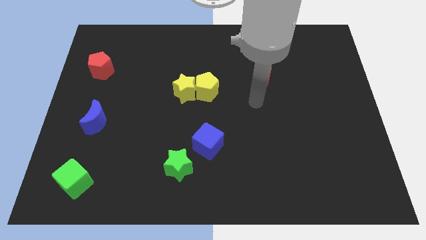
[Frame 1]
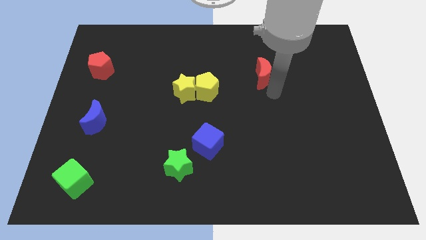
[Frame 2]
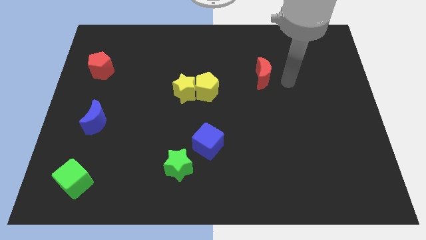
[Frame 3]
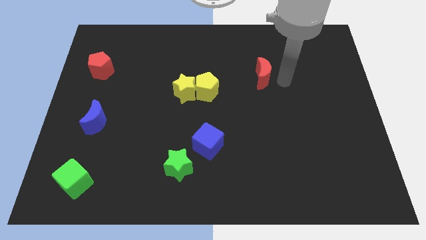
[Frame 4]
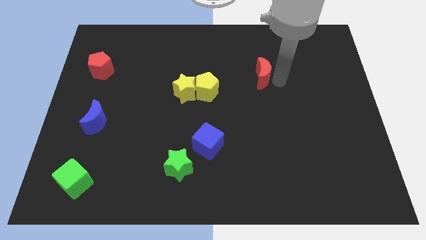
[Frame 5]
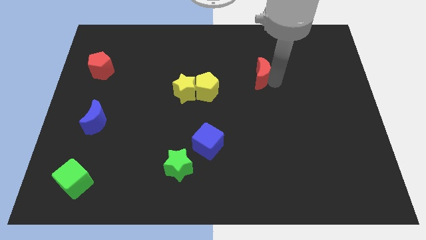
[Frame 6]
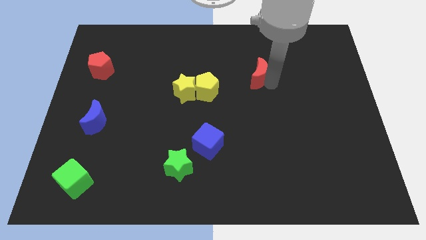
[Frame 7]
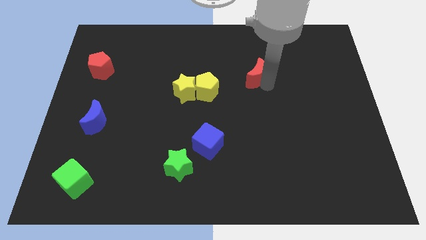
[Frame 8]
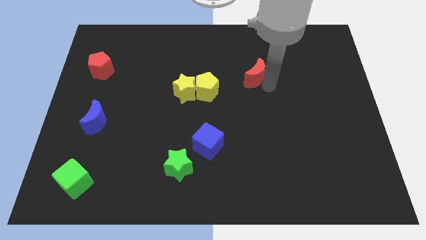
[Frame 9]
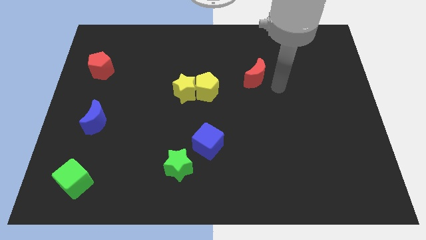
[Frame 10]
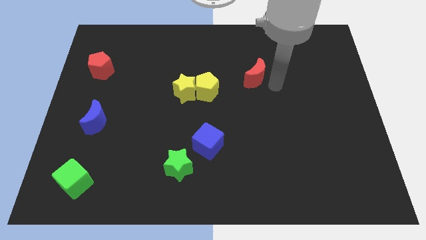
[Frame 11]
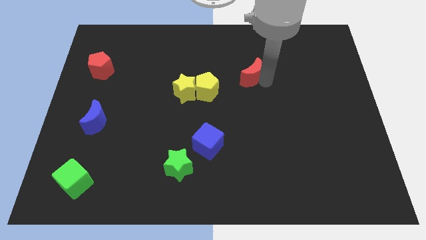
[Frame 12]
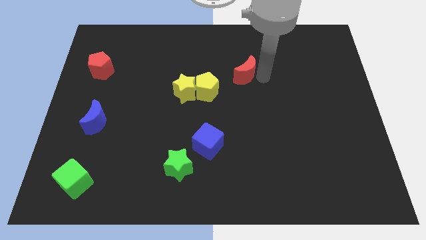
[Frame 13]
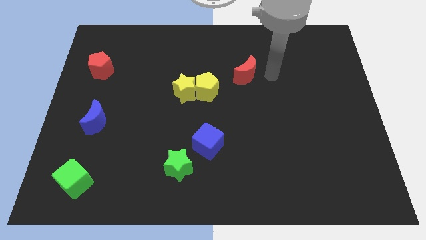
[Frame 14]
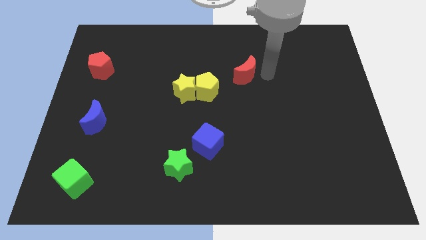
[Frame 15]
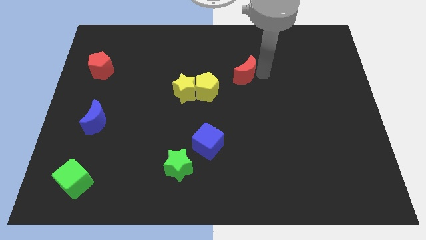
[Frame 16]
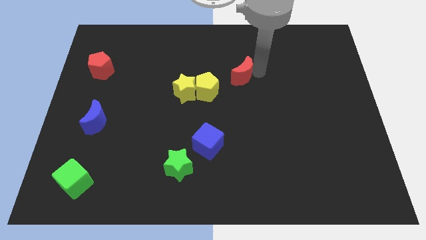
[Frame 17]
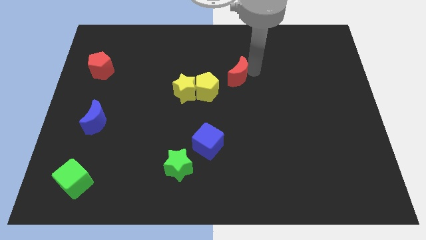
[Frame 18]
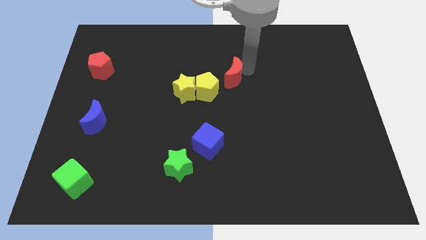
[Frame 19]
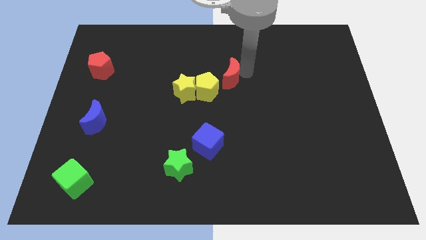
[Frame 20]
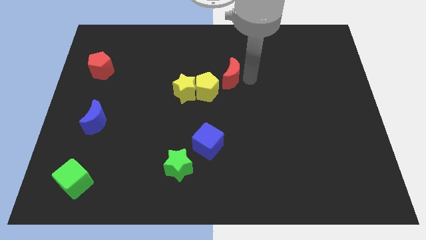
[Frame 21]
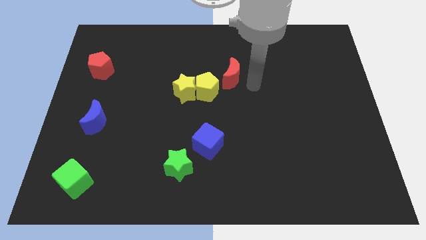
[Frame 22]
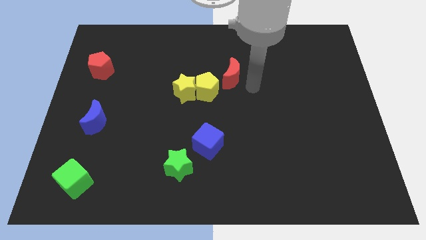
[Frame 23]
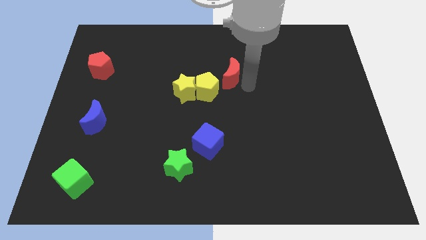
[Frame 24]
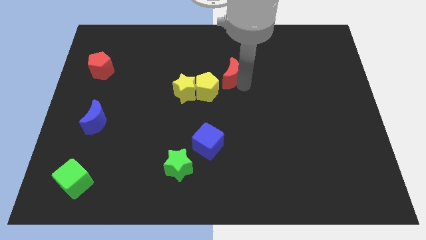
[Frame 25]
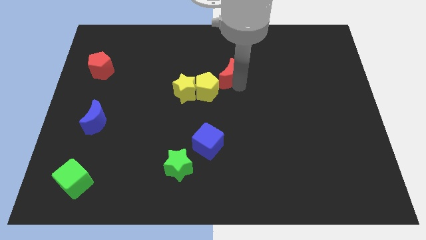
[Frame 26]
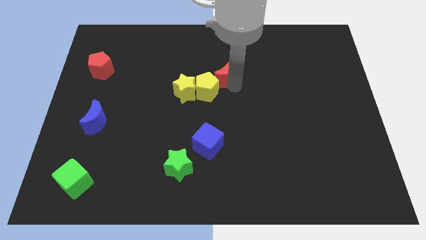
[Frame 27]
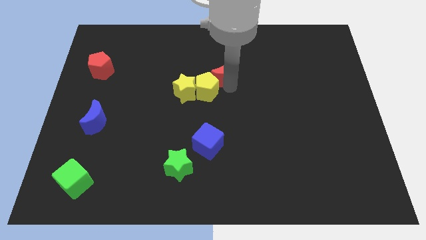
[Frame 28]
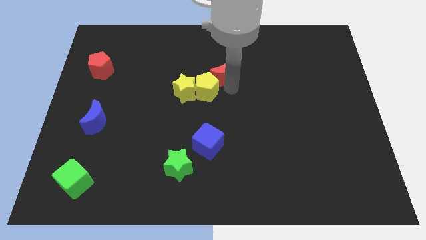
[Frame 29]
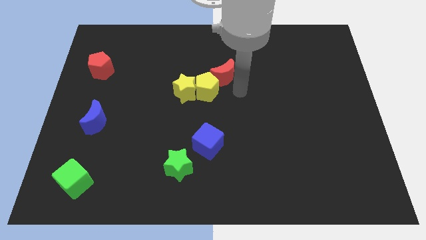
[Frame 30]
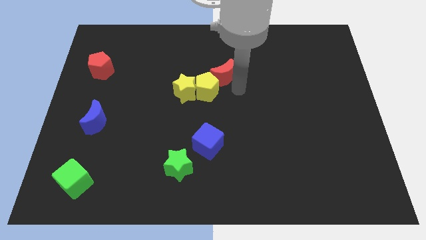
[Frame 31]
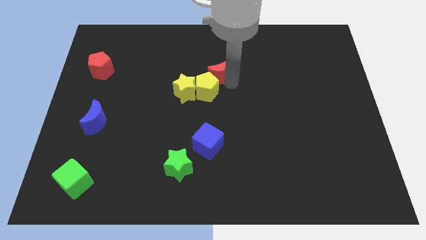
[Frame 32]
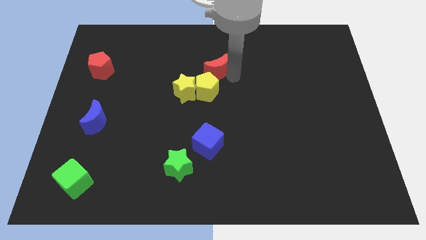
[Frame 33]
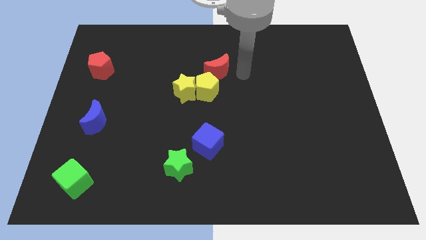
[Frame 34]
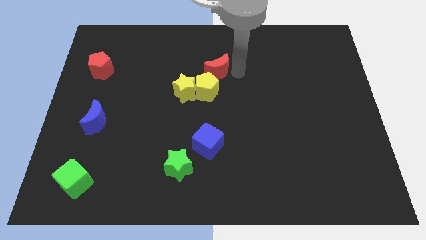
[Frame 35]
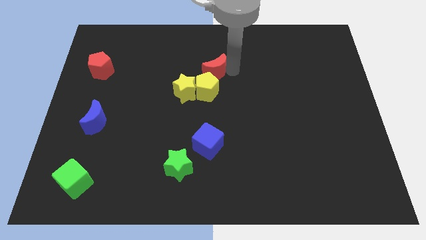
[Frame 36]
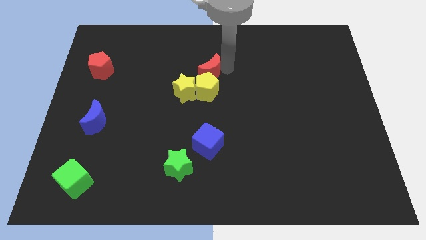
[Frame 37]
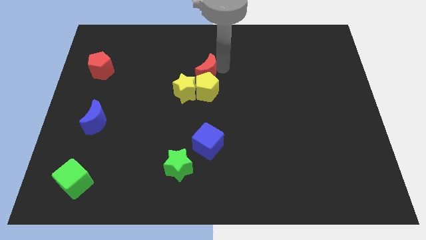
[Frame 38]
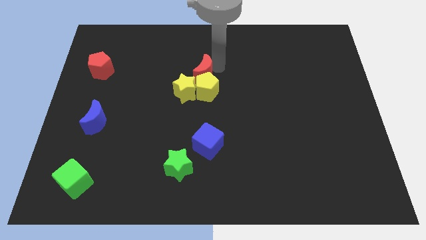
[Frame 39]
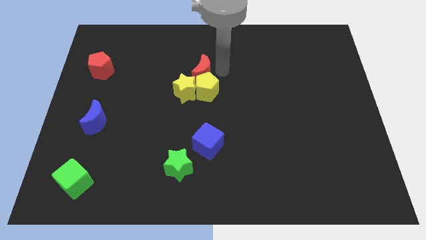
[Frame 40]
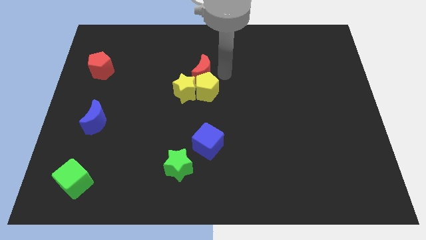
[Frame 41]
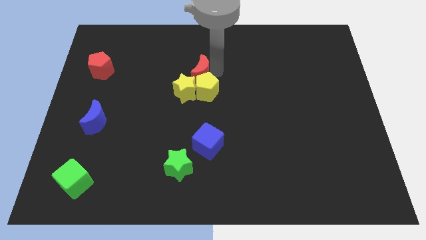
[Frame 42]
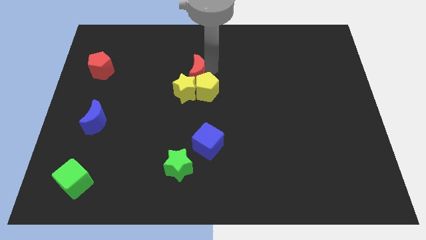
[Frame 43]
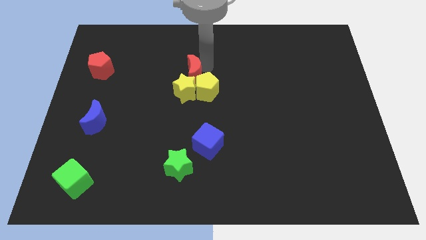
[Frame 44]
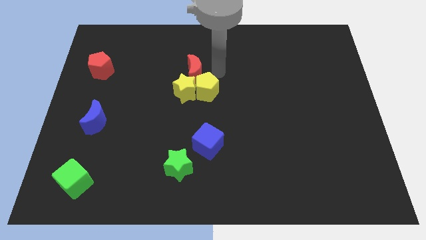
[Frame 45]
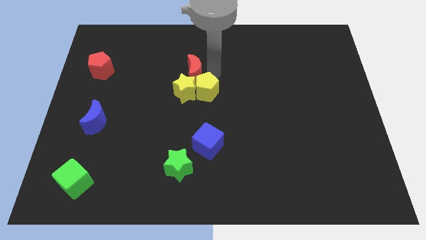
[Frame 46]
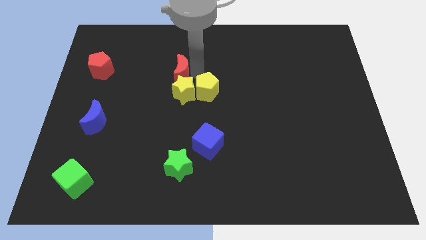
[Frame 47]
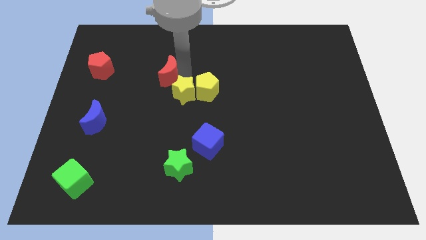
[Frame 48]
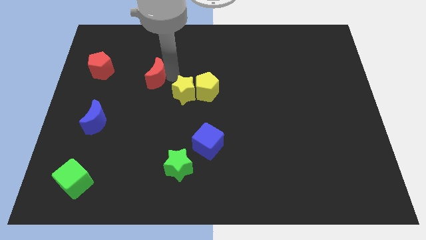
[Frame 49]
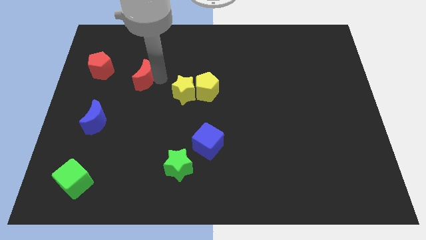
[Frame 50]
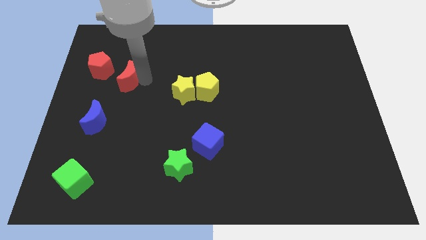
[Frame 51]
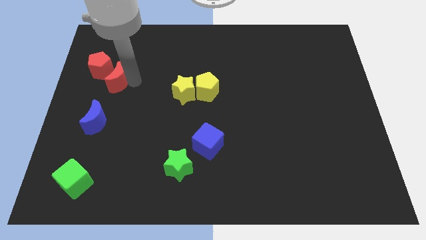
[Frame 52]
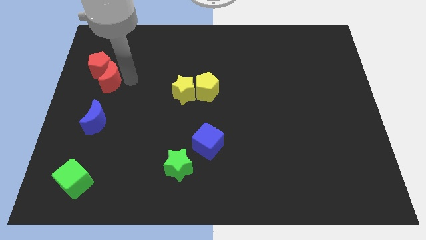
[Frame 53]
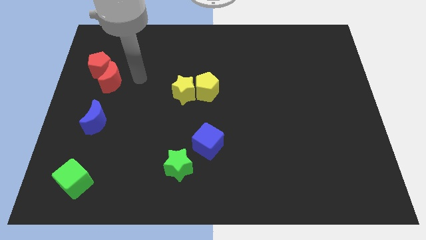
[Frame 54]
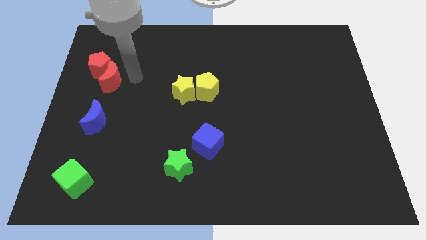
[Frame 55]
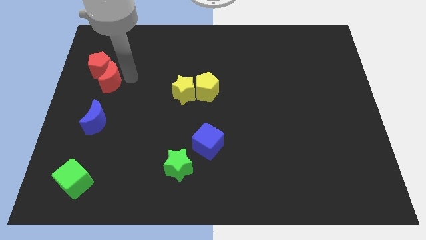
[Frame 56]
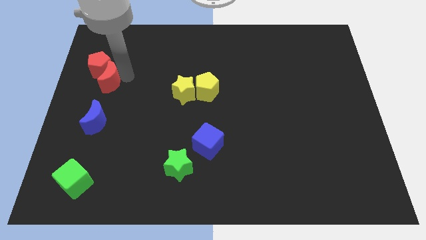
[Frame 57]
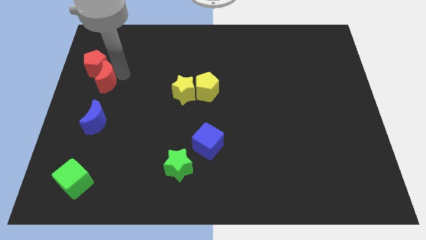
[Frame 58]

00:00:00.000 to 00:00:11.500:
push the red moon to the left side
